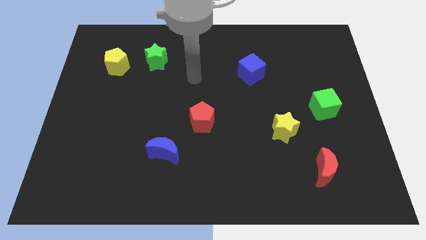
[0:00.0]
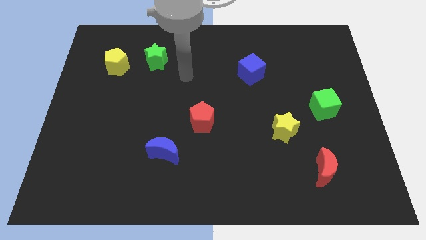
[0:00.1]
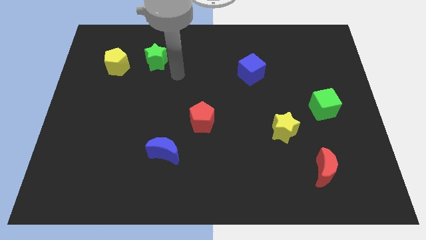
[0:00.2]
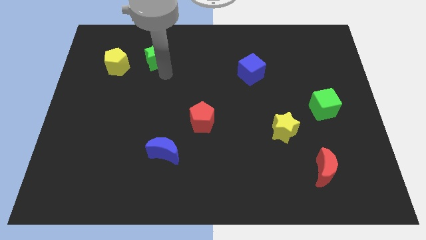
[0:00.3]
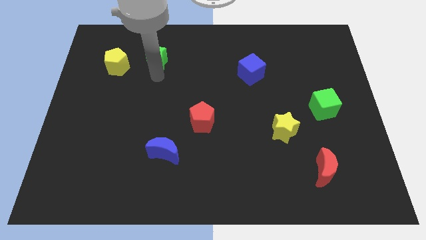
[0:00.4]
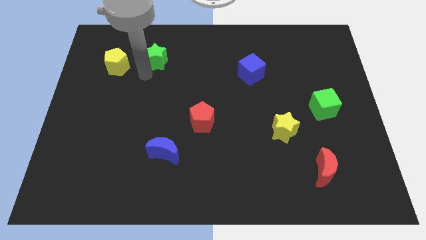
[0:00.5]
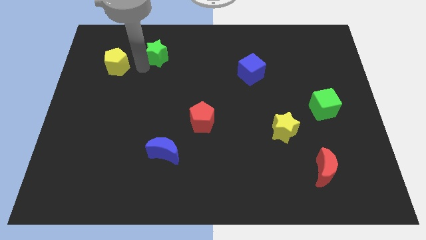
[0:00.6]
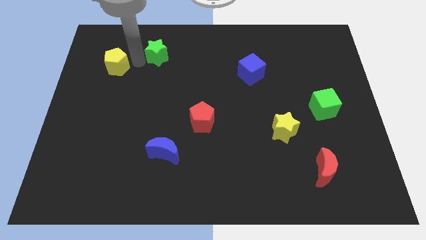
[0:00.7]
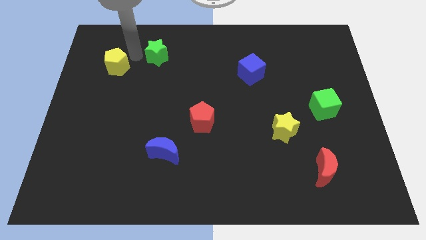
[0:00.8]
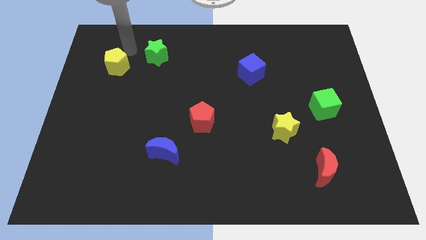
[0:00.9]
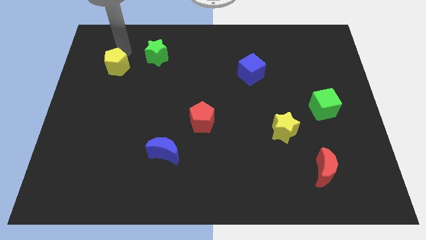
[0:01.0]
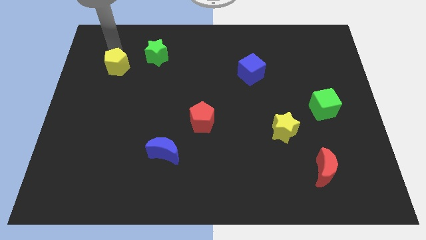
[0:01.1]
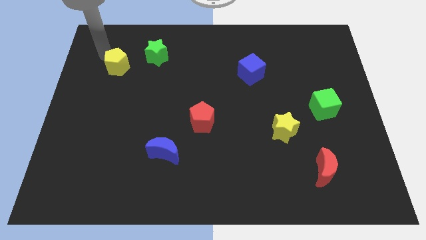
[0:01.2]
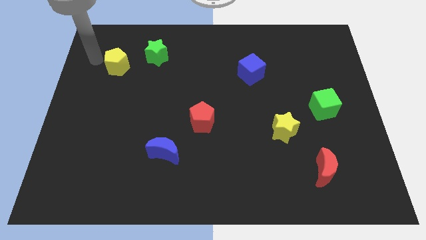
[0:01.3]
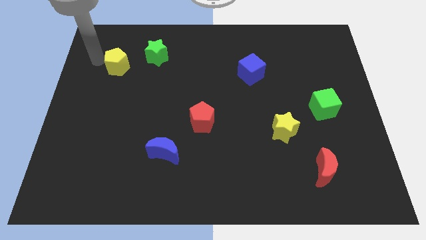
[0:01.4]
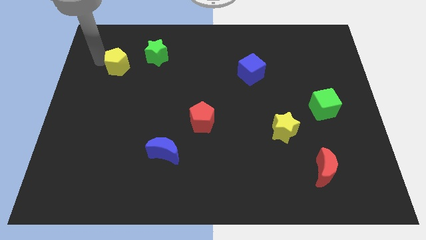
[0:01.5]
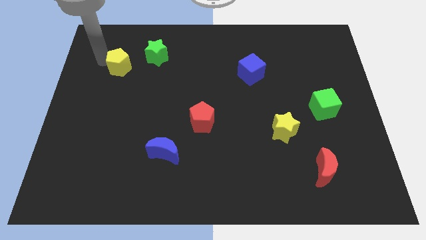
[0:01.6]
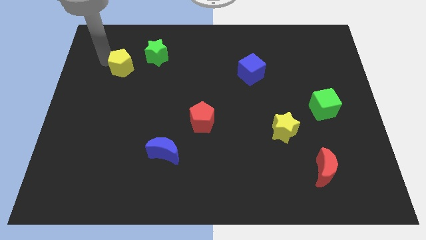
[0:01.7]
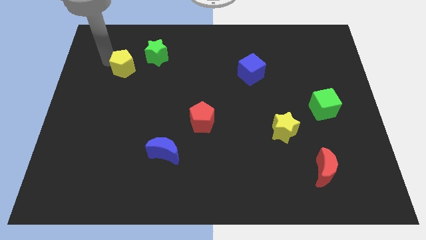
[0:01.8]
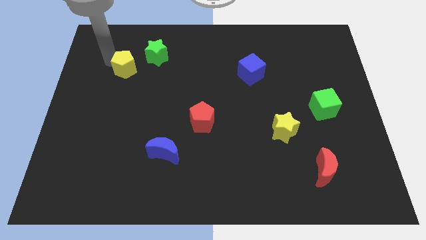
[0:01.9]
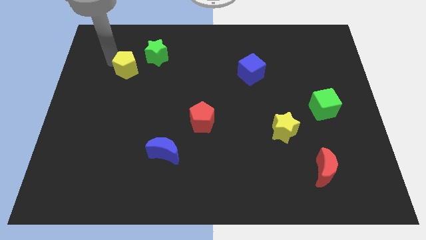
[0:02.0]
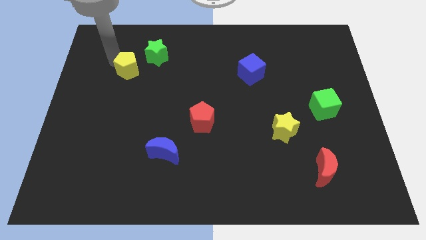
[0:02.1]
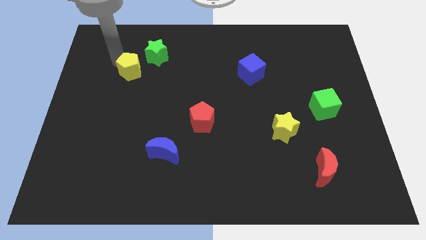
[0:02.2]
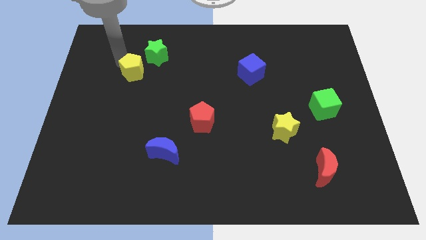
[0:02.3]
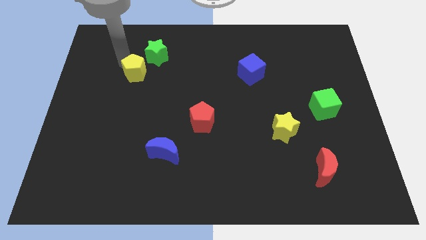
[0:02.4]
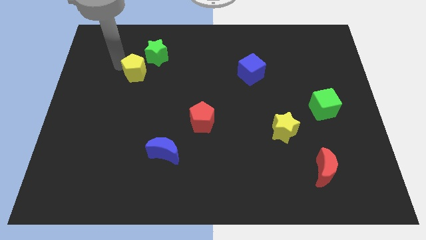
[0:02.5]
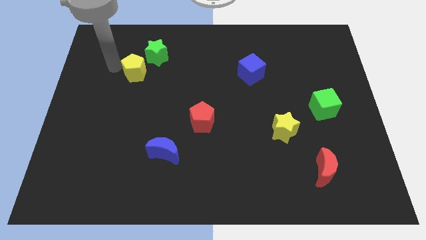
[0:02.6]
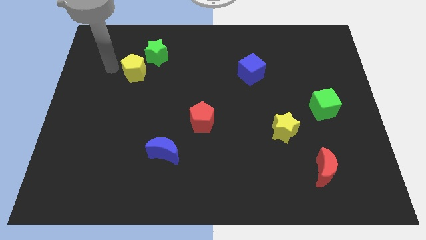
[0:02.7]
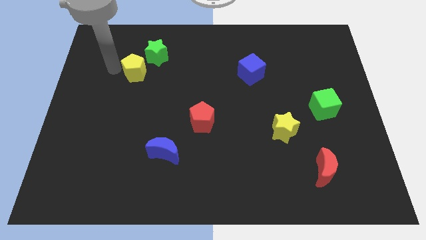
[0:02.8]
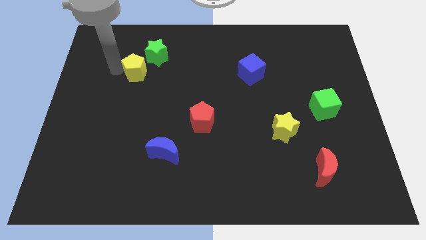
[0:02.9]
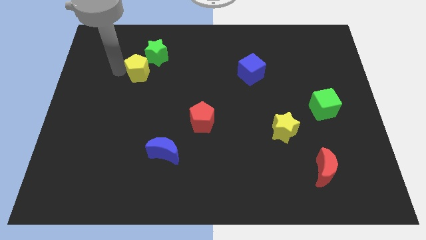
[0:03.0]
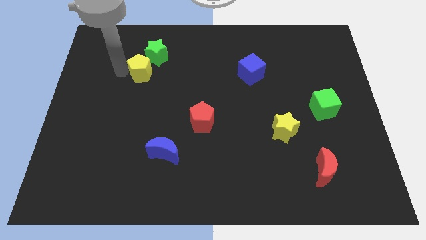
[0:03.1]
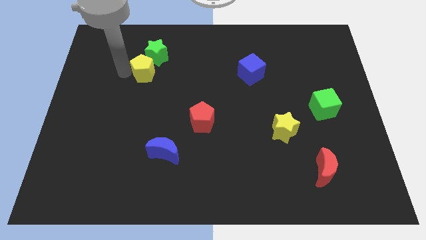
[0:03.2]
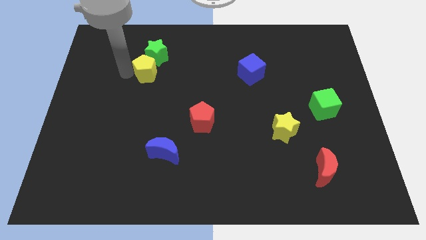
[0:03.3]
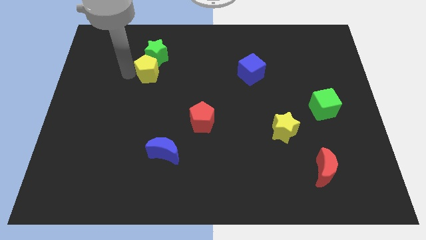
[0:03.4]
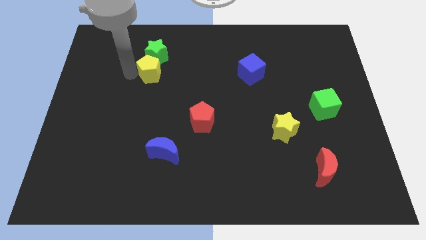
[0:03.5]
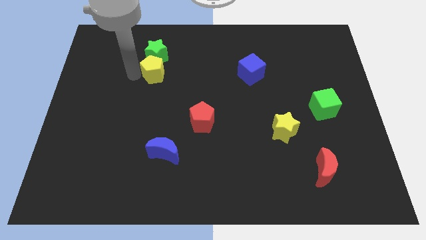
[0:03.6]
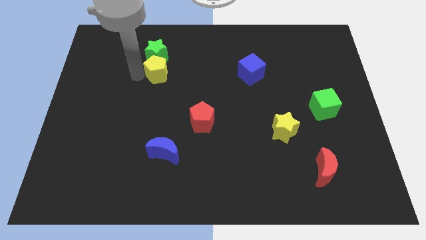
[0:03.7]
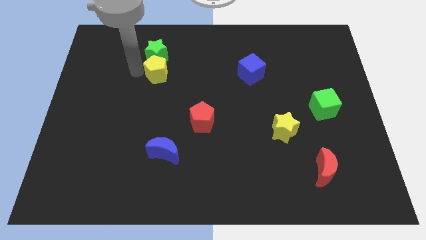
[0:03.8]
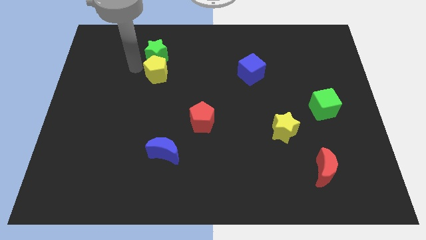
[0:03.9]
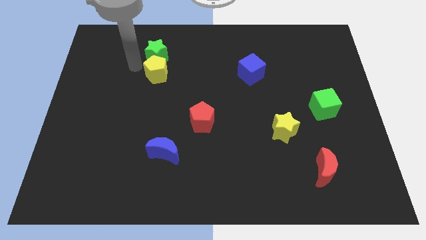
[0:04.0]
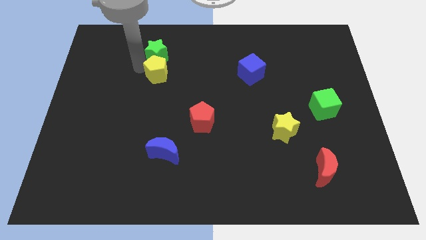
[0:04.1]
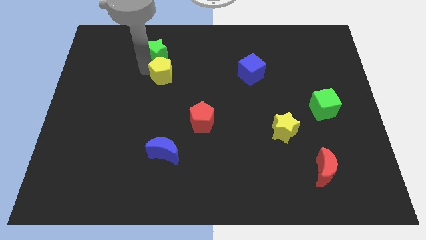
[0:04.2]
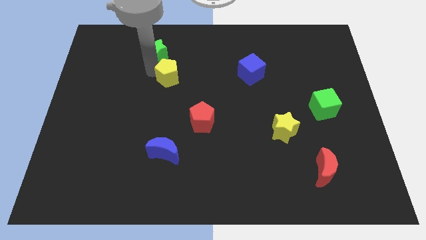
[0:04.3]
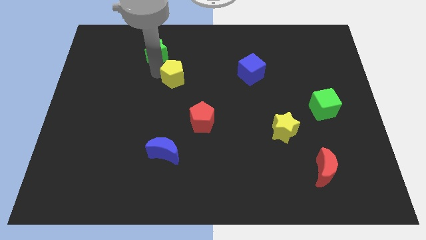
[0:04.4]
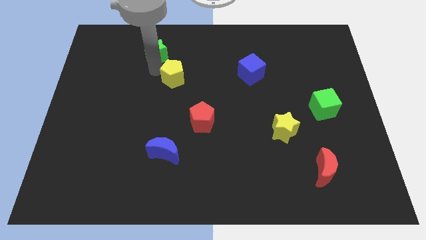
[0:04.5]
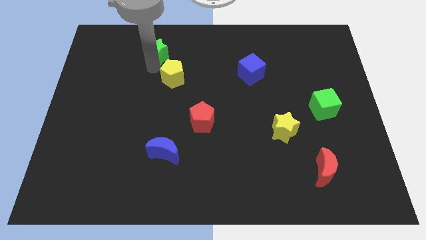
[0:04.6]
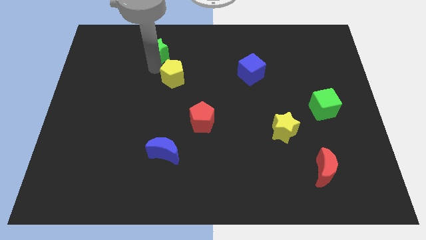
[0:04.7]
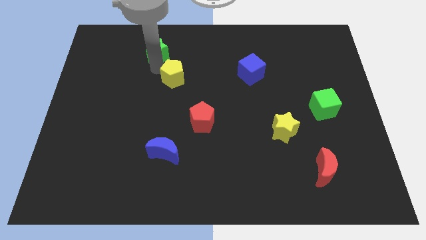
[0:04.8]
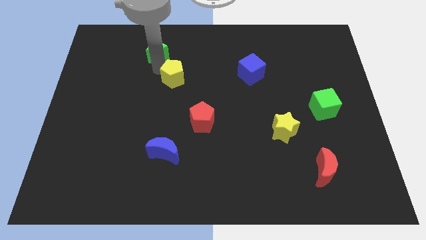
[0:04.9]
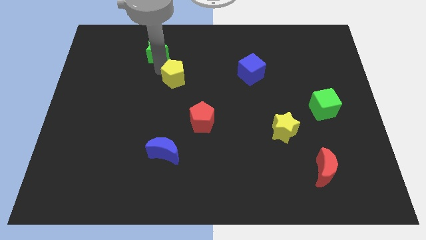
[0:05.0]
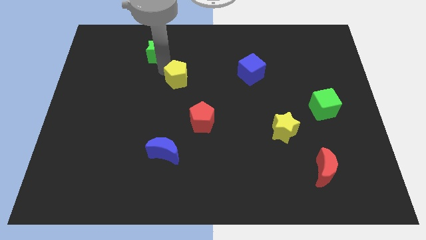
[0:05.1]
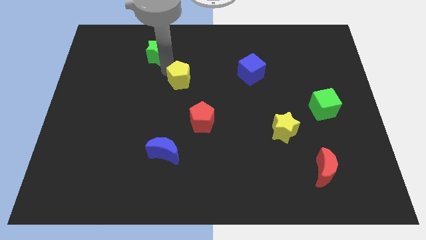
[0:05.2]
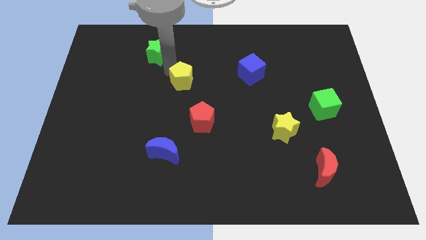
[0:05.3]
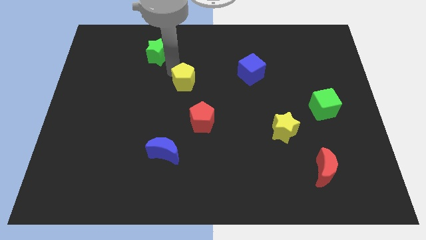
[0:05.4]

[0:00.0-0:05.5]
put the yellow pentagon to the top side of the red pentagon

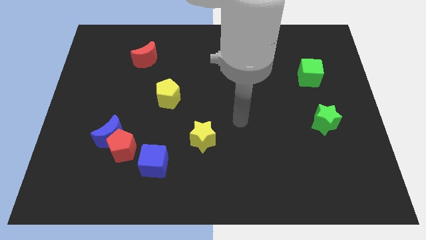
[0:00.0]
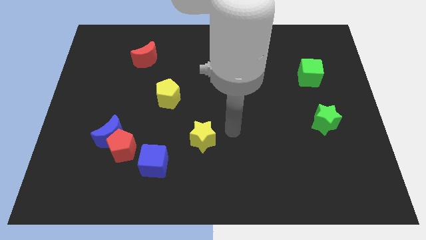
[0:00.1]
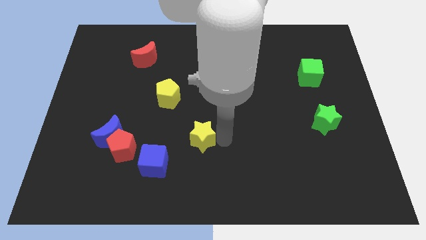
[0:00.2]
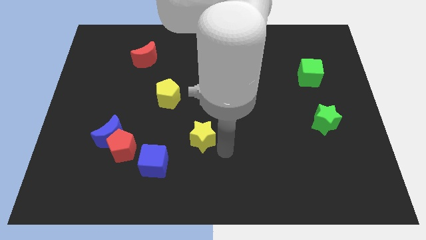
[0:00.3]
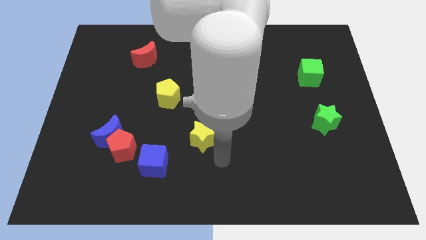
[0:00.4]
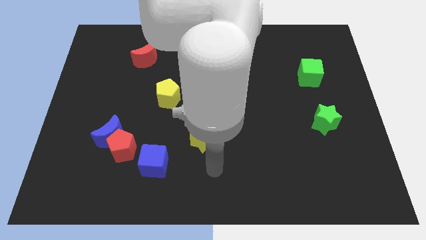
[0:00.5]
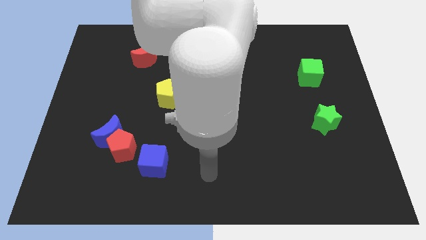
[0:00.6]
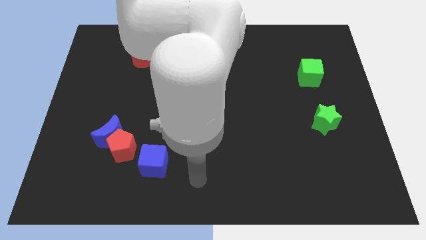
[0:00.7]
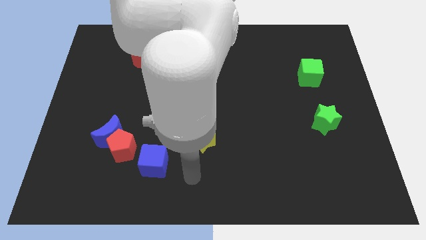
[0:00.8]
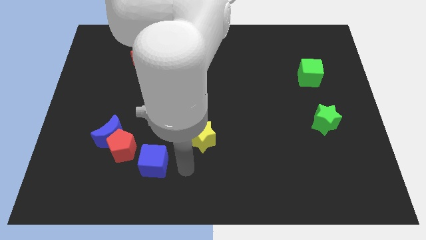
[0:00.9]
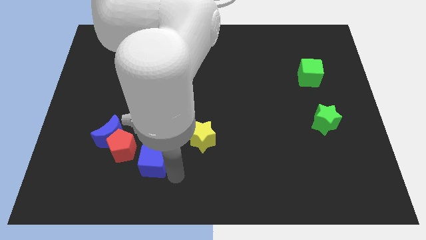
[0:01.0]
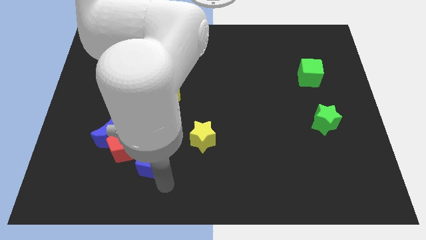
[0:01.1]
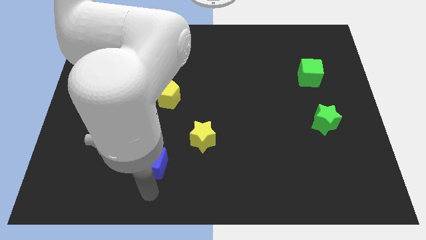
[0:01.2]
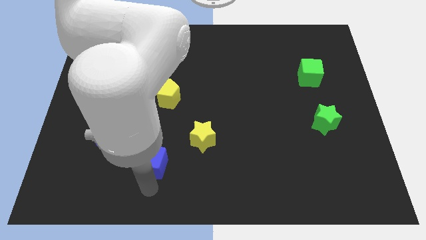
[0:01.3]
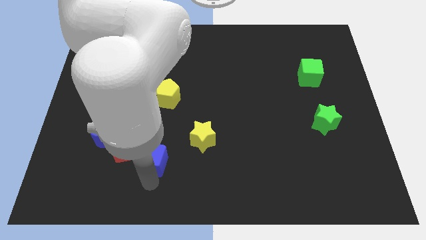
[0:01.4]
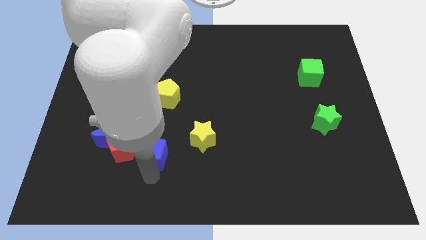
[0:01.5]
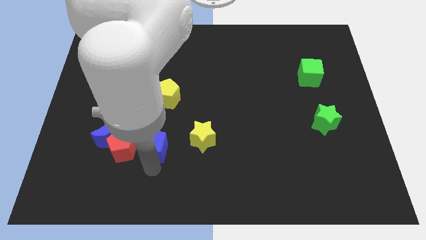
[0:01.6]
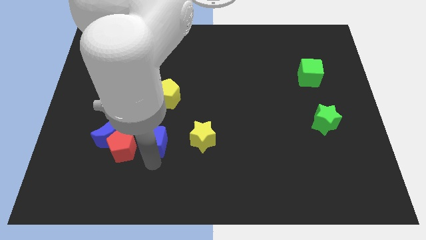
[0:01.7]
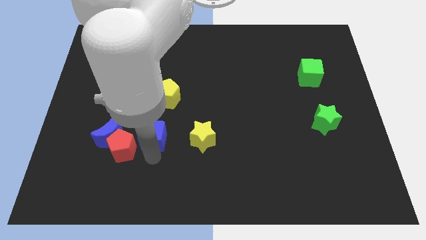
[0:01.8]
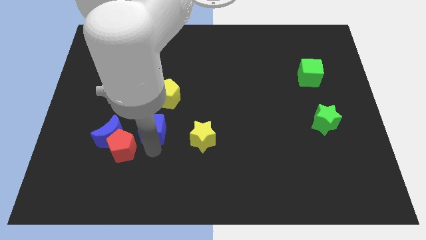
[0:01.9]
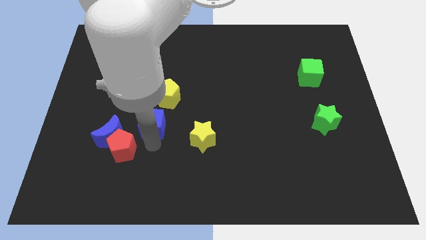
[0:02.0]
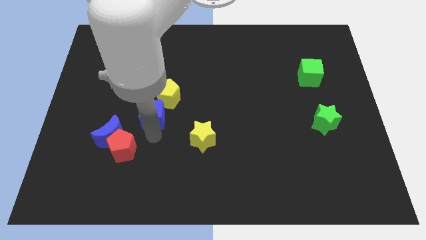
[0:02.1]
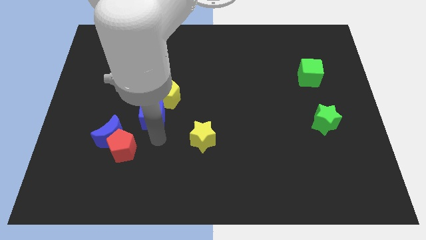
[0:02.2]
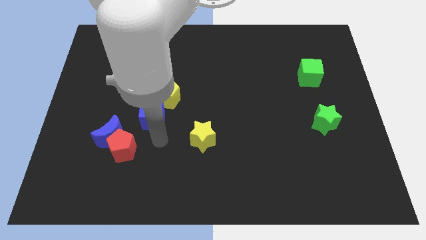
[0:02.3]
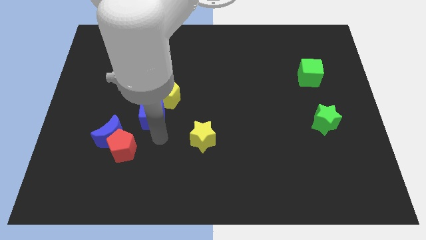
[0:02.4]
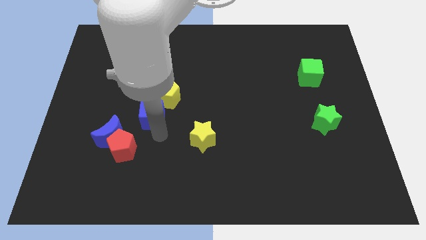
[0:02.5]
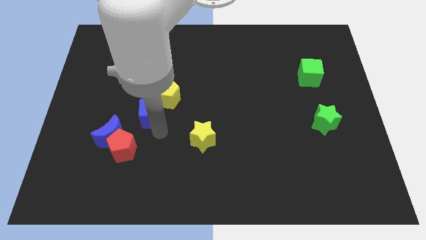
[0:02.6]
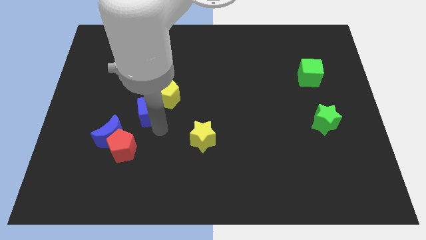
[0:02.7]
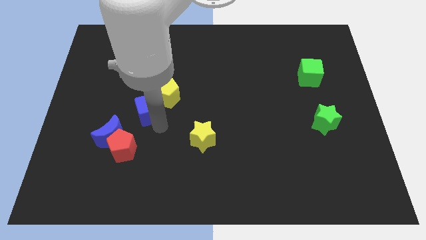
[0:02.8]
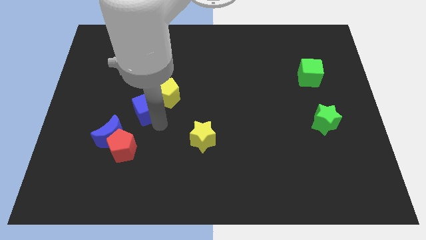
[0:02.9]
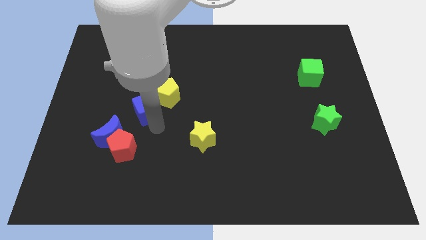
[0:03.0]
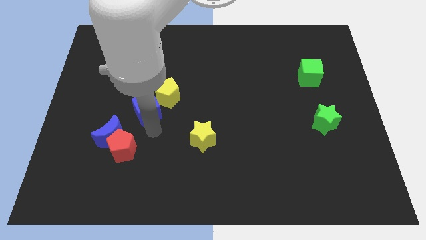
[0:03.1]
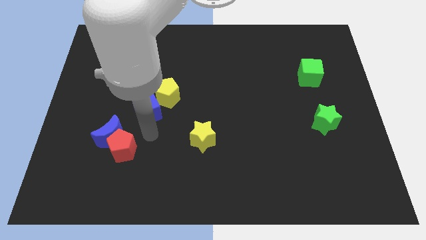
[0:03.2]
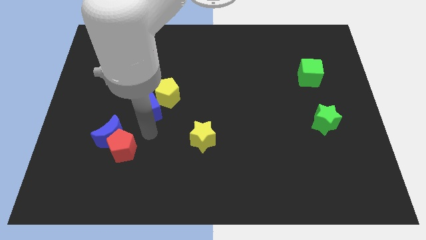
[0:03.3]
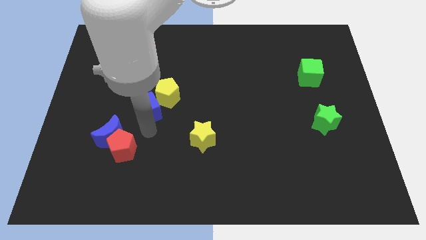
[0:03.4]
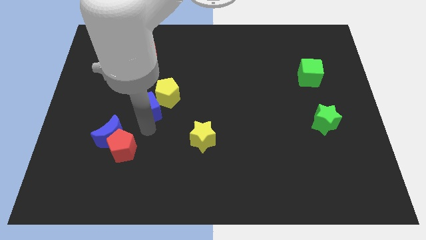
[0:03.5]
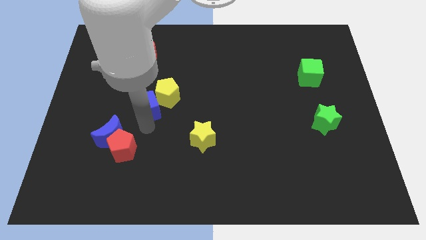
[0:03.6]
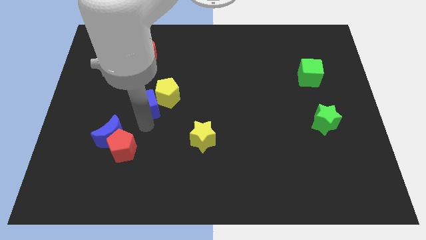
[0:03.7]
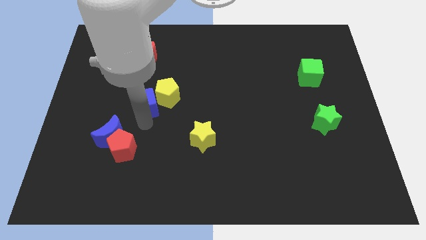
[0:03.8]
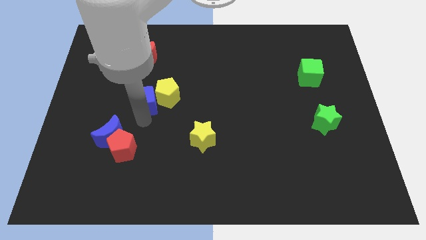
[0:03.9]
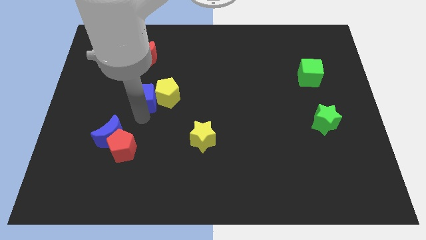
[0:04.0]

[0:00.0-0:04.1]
slide the blue cube to the top left side of the yellow pentagon
